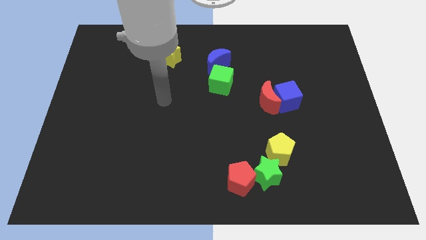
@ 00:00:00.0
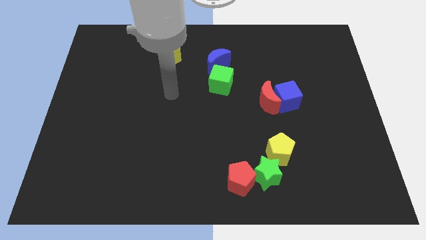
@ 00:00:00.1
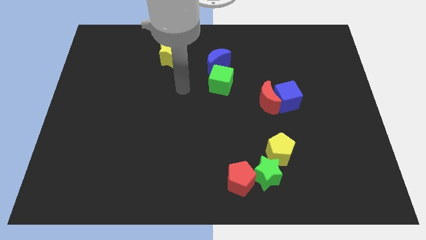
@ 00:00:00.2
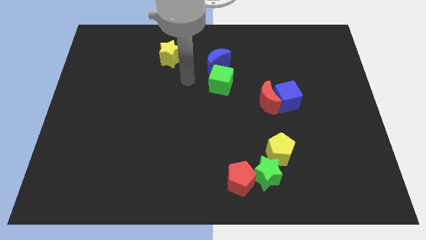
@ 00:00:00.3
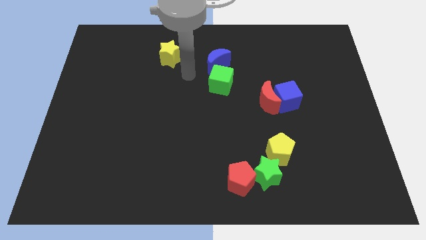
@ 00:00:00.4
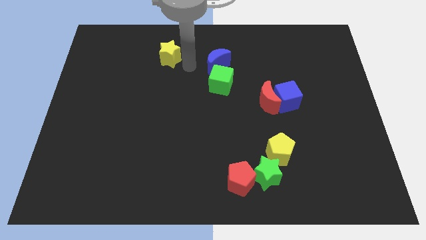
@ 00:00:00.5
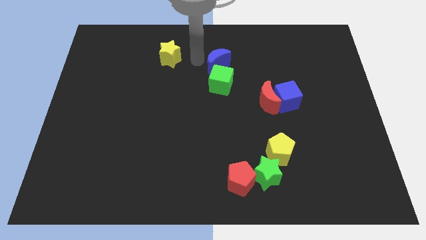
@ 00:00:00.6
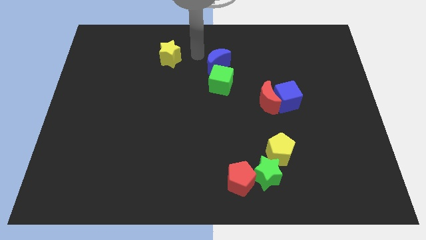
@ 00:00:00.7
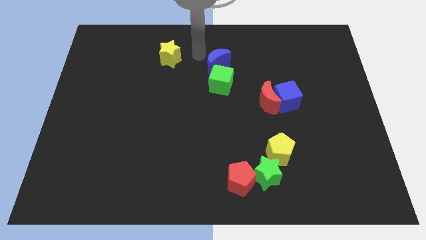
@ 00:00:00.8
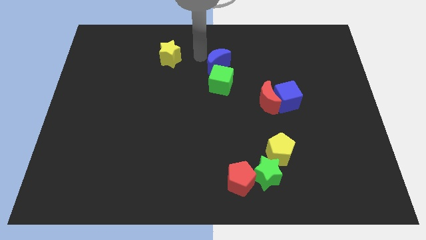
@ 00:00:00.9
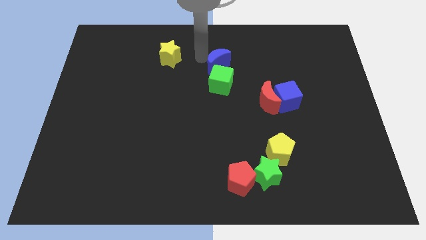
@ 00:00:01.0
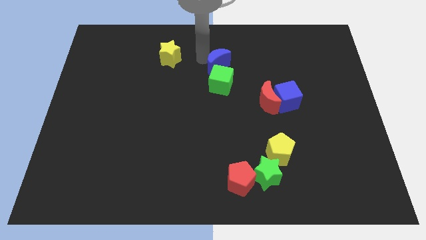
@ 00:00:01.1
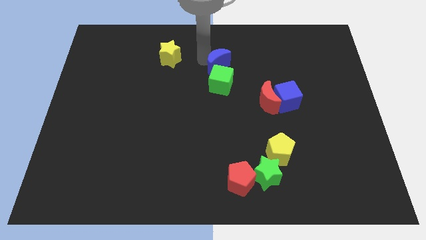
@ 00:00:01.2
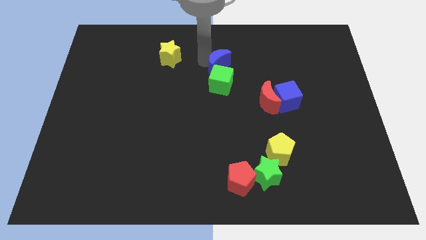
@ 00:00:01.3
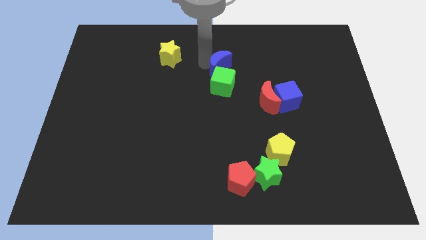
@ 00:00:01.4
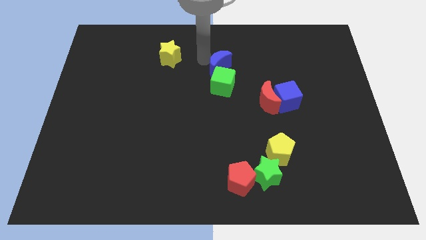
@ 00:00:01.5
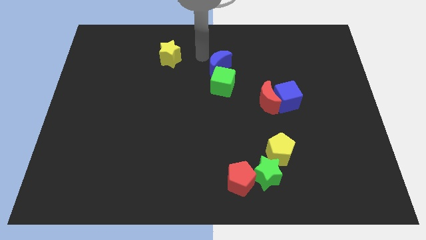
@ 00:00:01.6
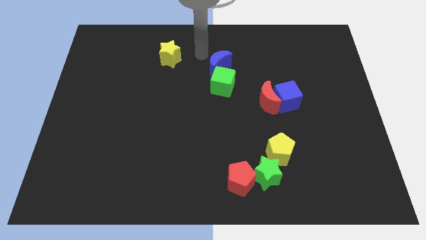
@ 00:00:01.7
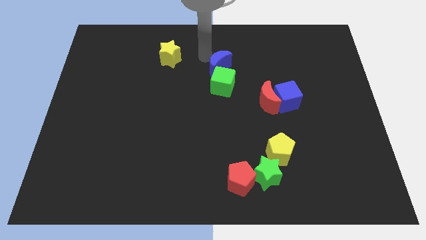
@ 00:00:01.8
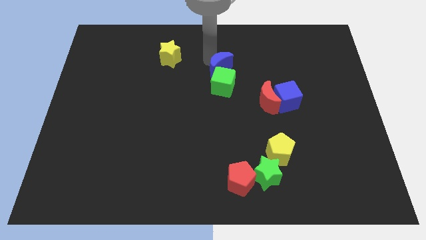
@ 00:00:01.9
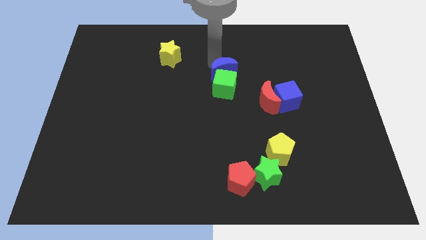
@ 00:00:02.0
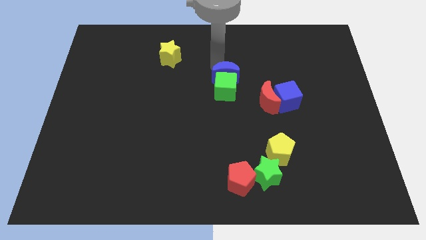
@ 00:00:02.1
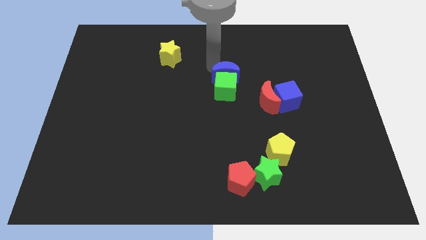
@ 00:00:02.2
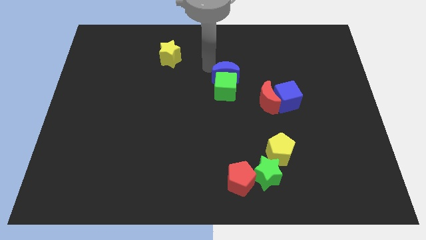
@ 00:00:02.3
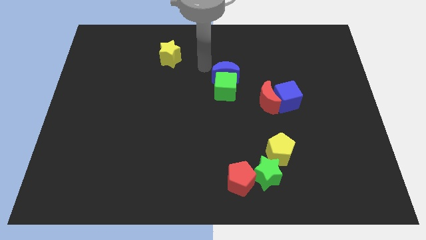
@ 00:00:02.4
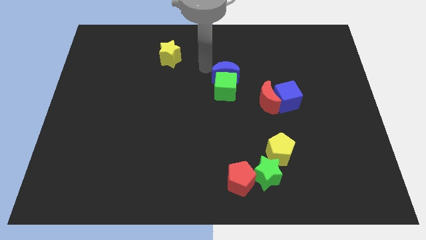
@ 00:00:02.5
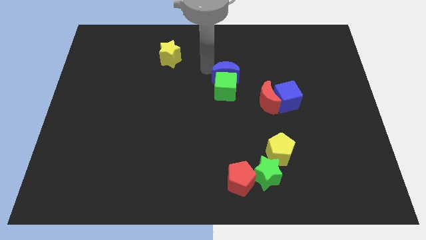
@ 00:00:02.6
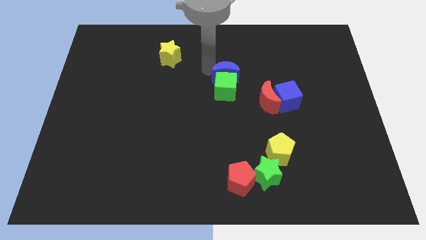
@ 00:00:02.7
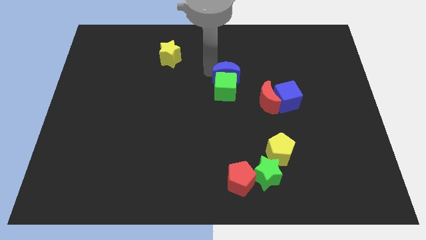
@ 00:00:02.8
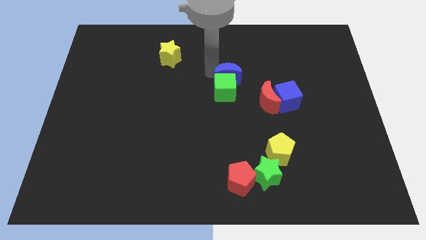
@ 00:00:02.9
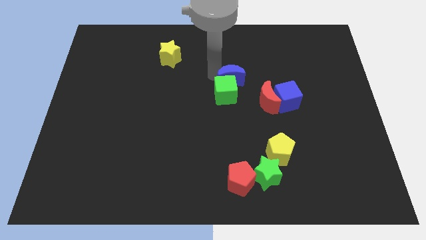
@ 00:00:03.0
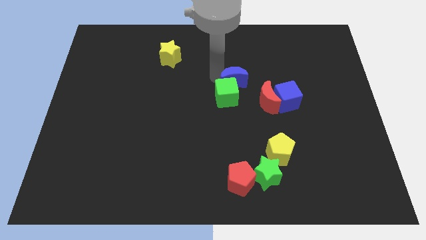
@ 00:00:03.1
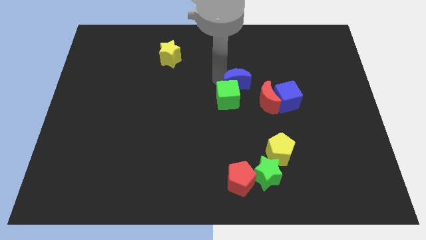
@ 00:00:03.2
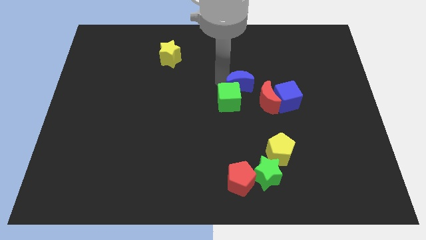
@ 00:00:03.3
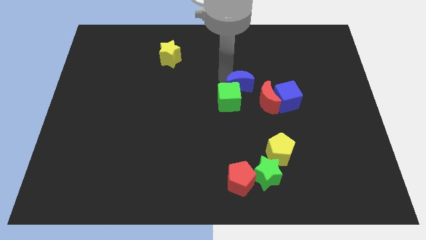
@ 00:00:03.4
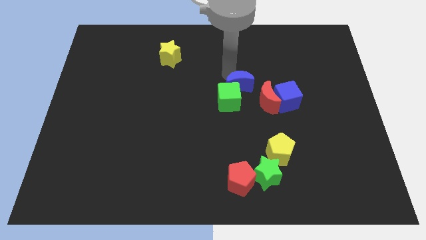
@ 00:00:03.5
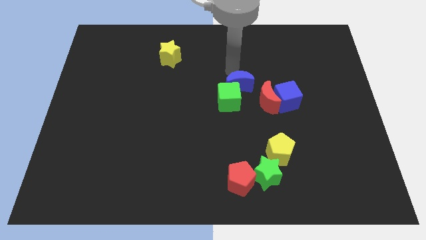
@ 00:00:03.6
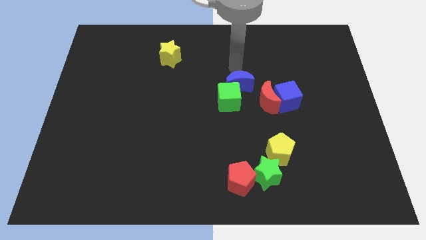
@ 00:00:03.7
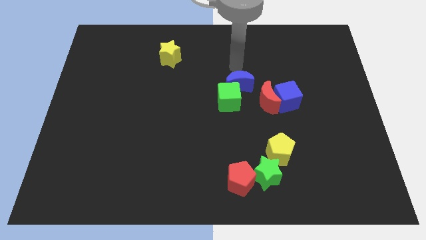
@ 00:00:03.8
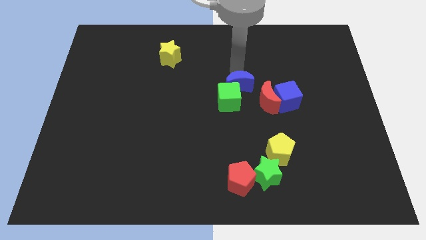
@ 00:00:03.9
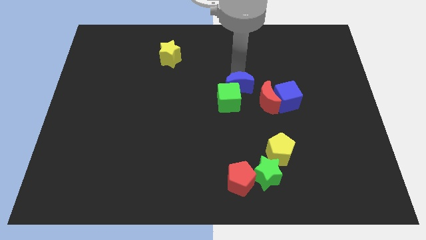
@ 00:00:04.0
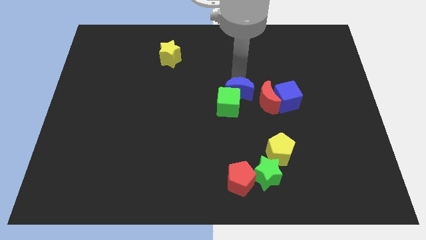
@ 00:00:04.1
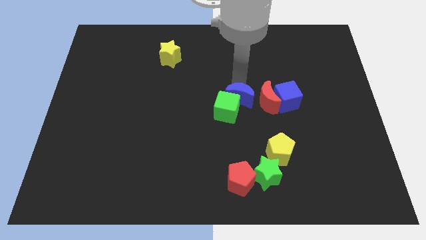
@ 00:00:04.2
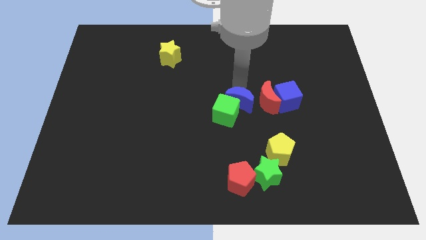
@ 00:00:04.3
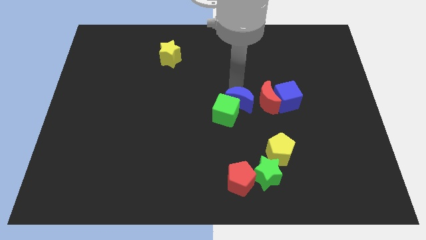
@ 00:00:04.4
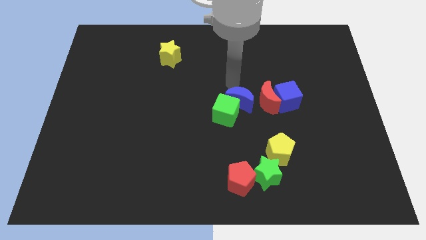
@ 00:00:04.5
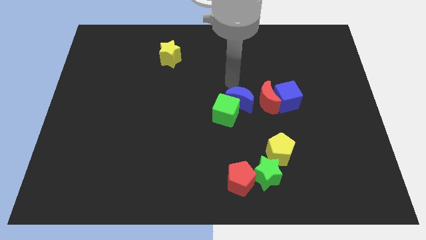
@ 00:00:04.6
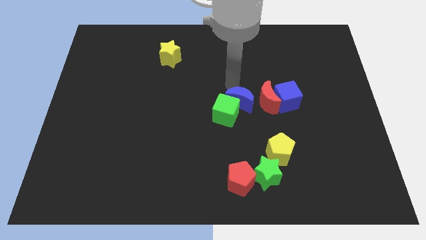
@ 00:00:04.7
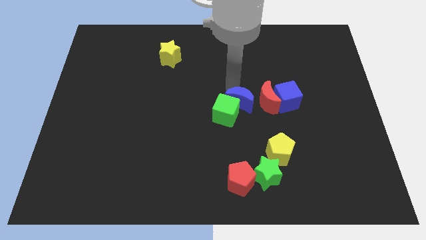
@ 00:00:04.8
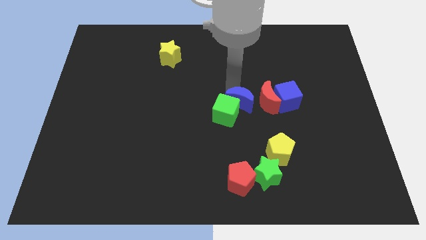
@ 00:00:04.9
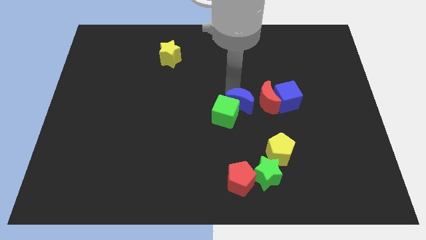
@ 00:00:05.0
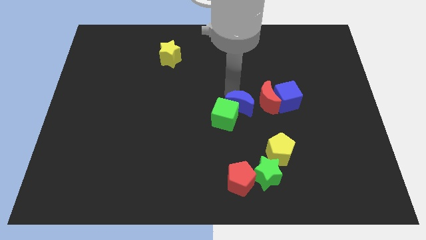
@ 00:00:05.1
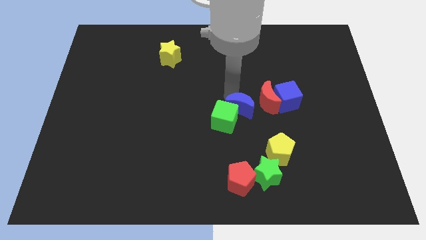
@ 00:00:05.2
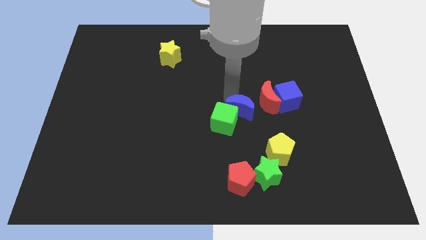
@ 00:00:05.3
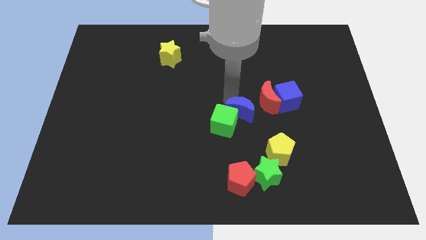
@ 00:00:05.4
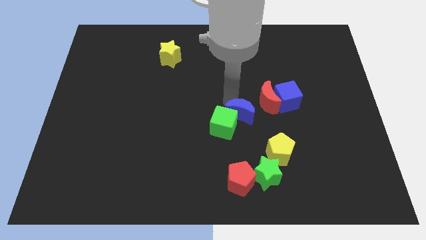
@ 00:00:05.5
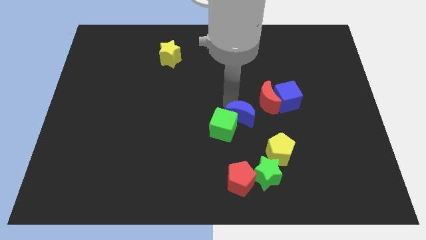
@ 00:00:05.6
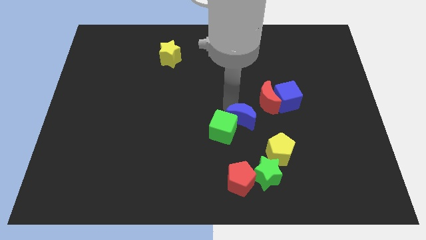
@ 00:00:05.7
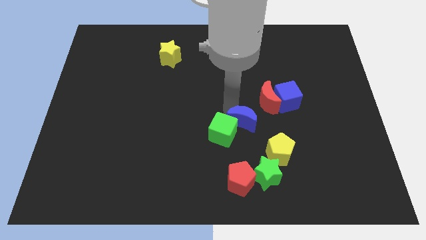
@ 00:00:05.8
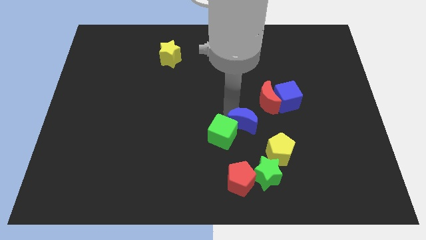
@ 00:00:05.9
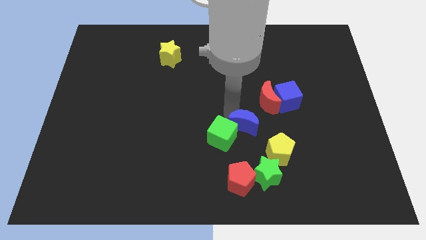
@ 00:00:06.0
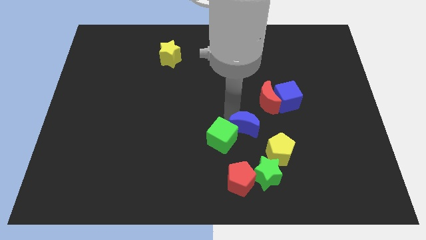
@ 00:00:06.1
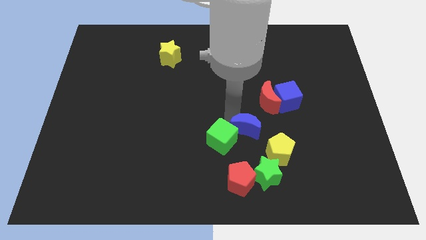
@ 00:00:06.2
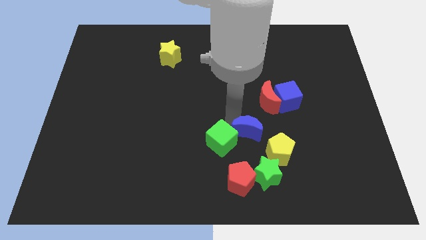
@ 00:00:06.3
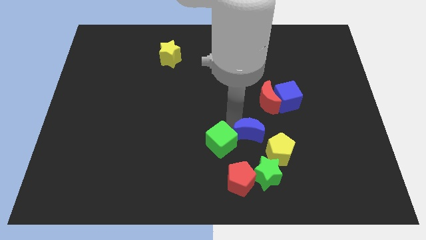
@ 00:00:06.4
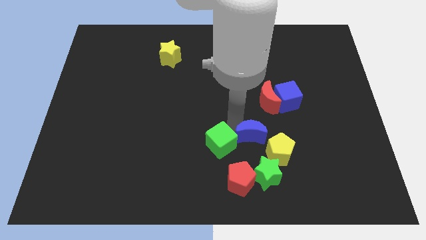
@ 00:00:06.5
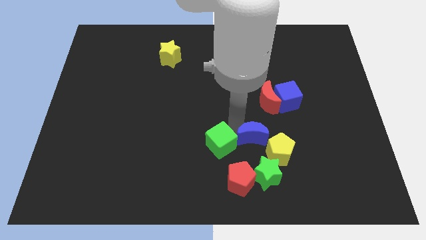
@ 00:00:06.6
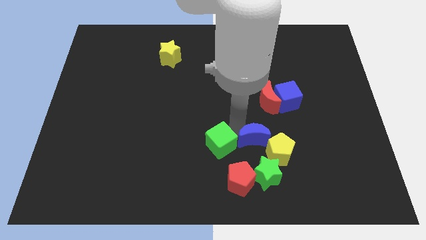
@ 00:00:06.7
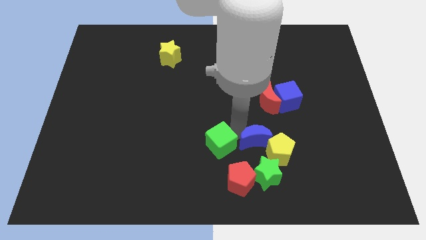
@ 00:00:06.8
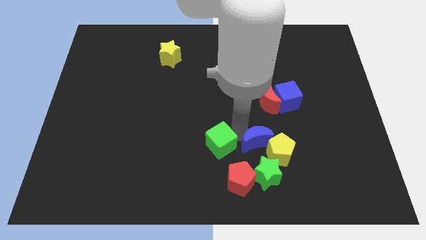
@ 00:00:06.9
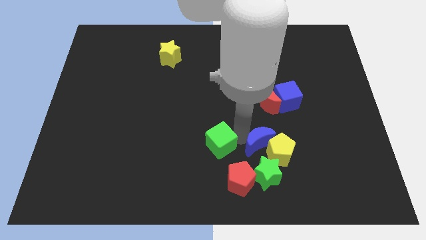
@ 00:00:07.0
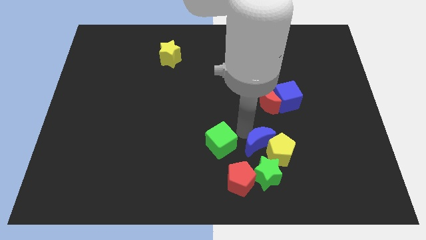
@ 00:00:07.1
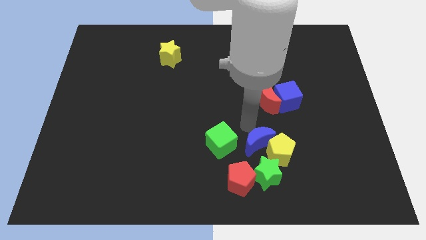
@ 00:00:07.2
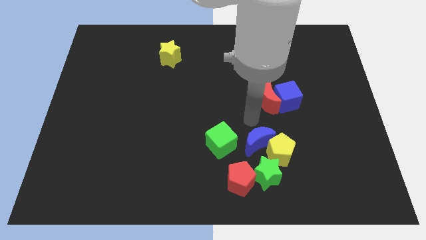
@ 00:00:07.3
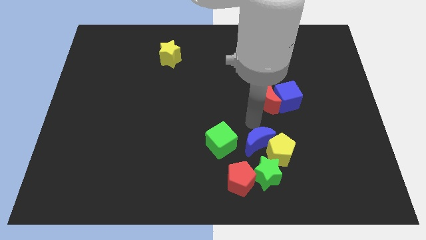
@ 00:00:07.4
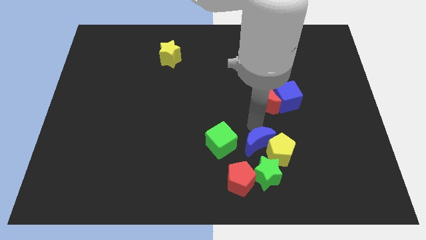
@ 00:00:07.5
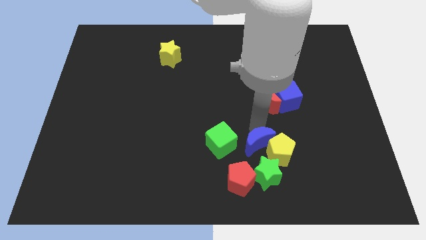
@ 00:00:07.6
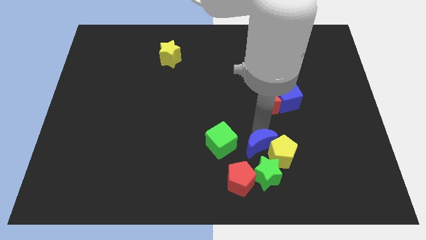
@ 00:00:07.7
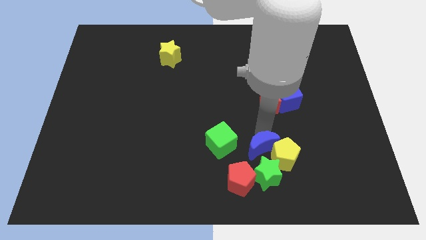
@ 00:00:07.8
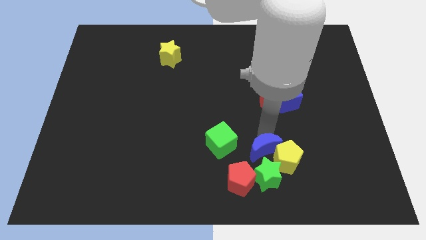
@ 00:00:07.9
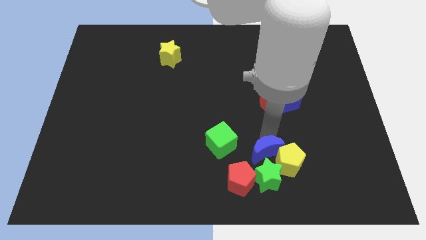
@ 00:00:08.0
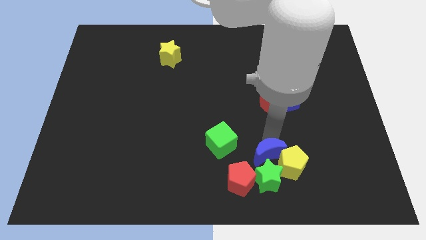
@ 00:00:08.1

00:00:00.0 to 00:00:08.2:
move the blue moon close to the green star
